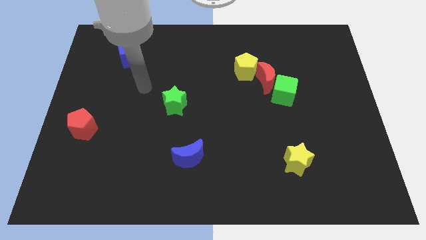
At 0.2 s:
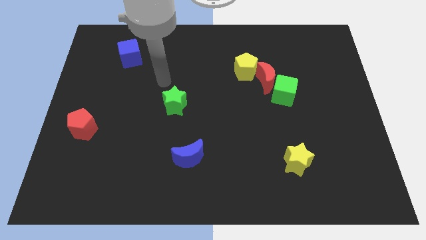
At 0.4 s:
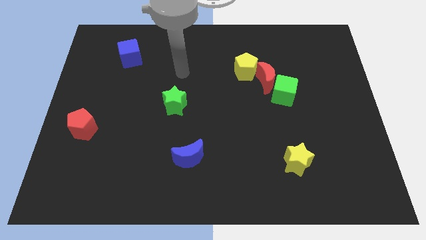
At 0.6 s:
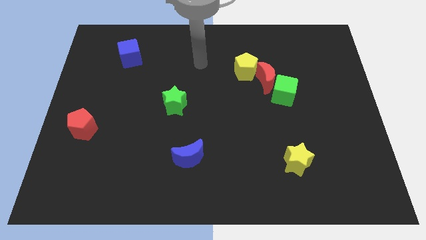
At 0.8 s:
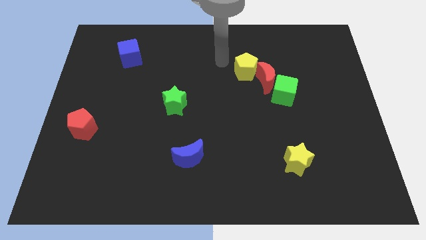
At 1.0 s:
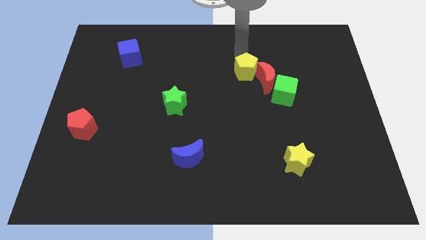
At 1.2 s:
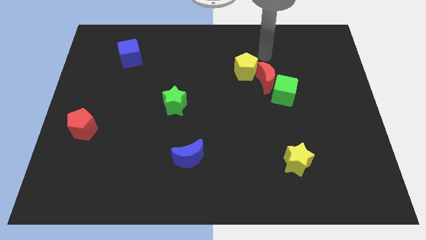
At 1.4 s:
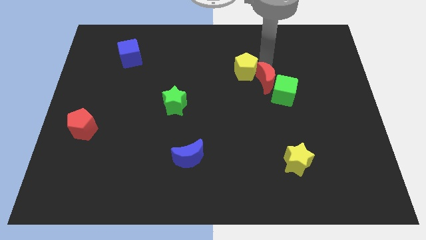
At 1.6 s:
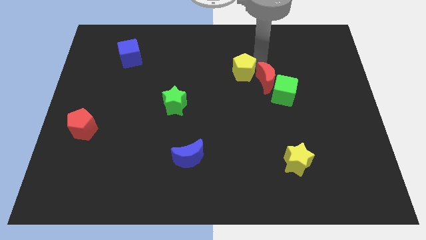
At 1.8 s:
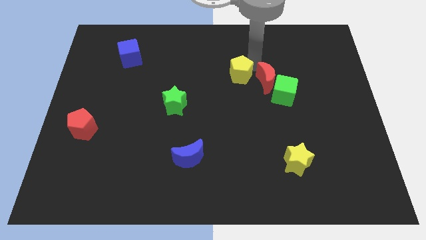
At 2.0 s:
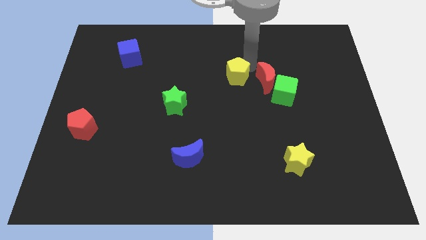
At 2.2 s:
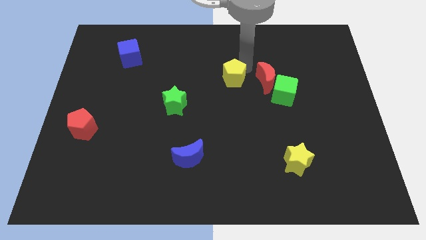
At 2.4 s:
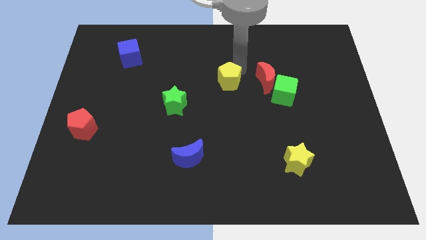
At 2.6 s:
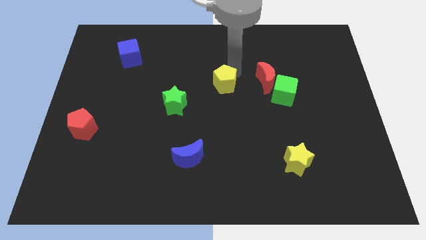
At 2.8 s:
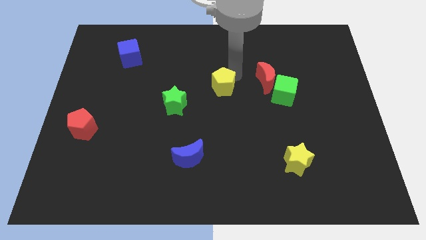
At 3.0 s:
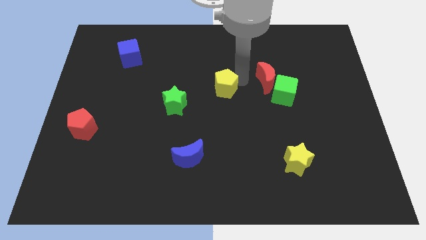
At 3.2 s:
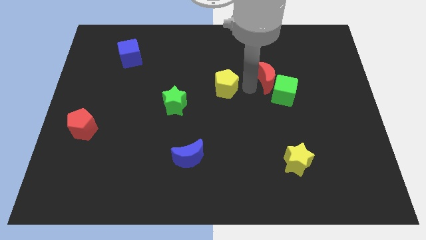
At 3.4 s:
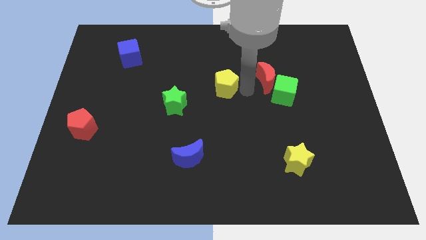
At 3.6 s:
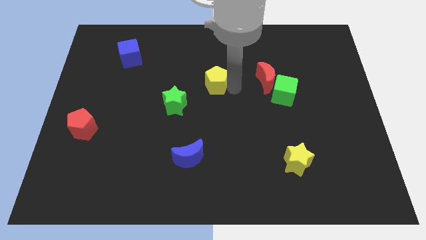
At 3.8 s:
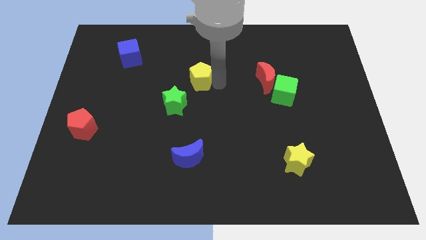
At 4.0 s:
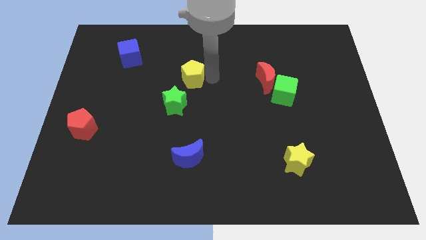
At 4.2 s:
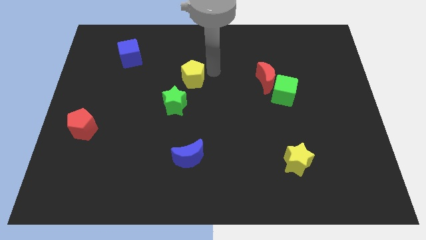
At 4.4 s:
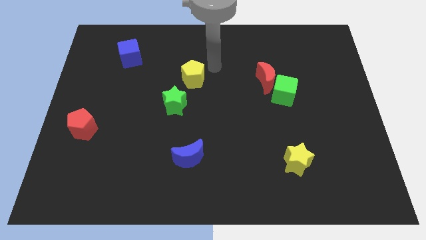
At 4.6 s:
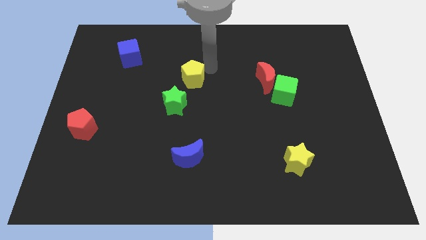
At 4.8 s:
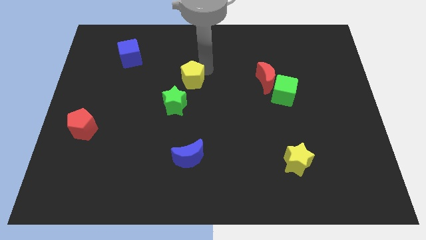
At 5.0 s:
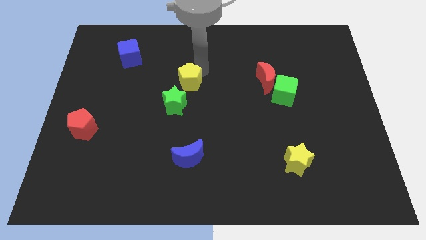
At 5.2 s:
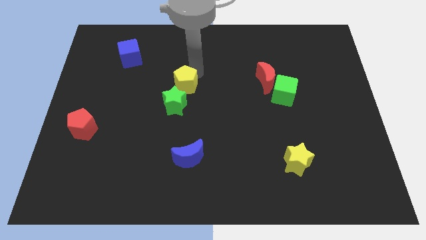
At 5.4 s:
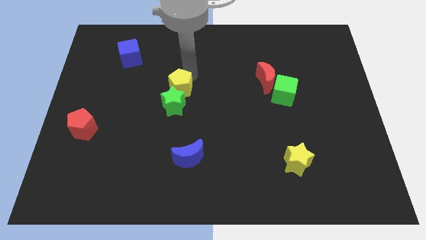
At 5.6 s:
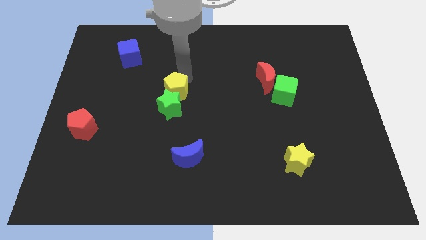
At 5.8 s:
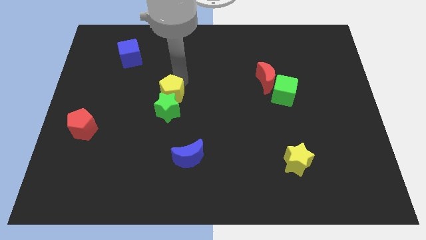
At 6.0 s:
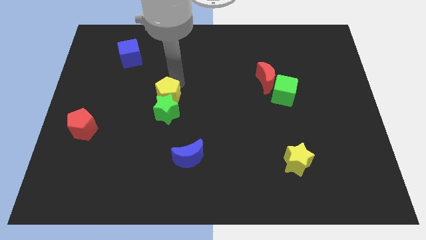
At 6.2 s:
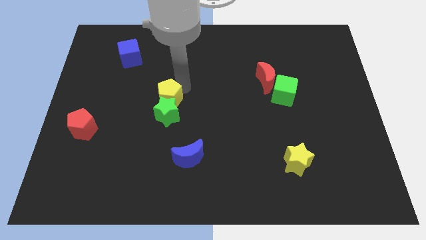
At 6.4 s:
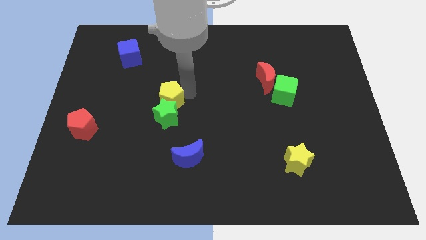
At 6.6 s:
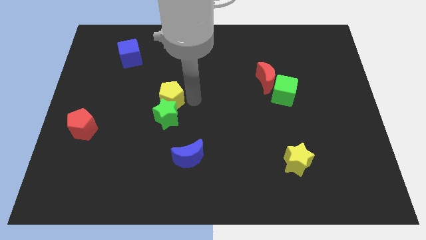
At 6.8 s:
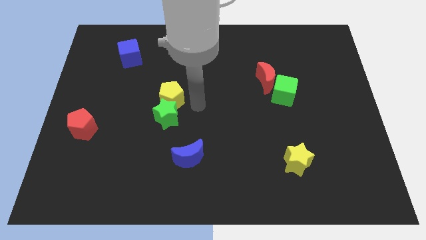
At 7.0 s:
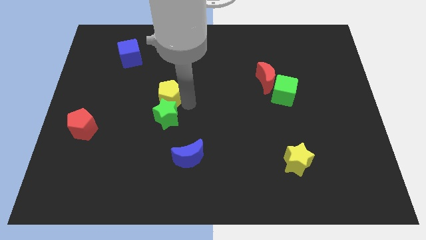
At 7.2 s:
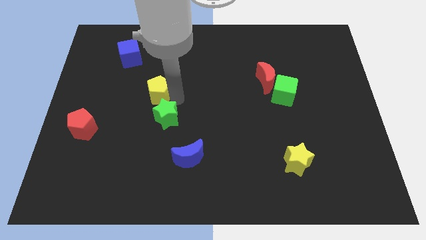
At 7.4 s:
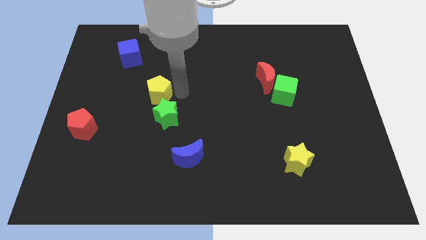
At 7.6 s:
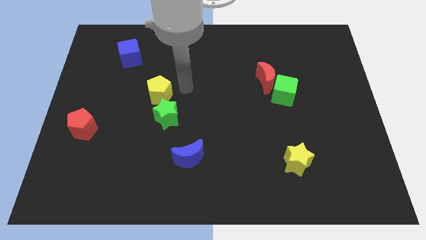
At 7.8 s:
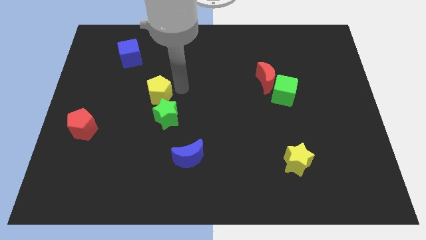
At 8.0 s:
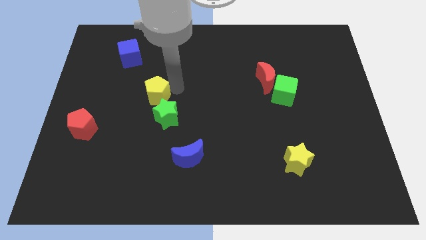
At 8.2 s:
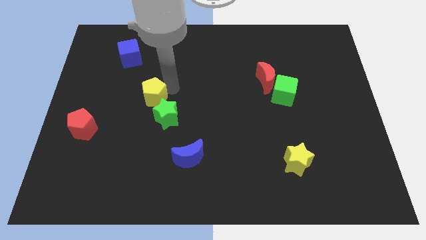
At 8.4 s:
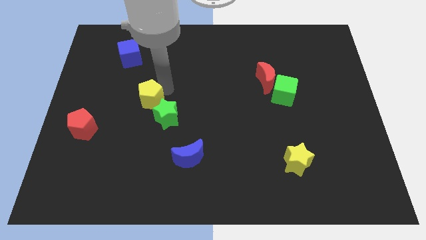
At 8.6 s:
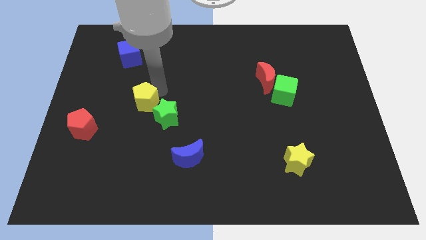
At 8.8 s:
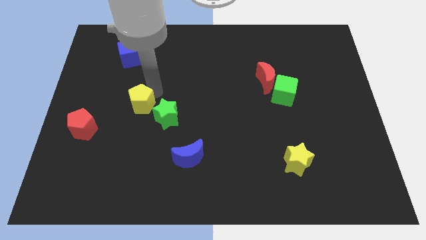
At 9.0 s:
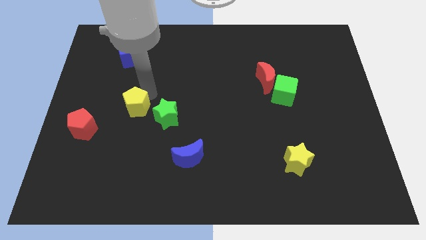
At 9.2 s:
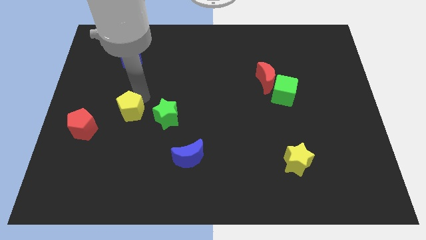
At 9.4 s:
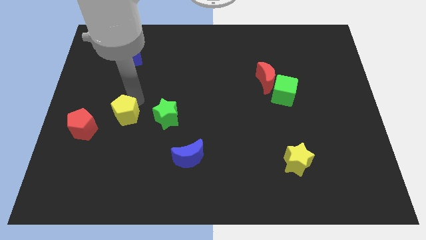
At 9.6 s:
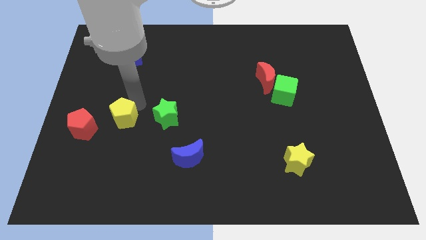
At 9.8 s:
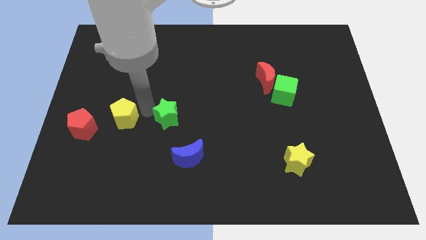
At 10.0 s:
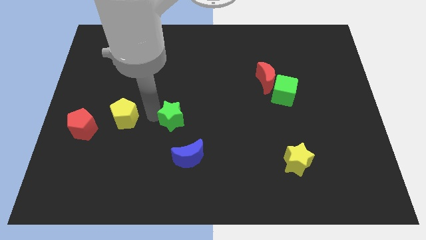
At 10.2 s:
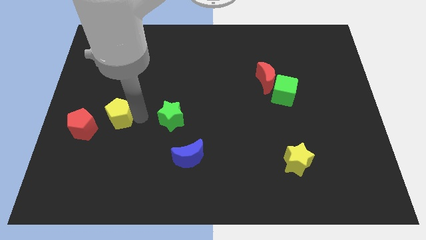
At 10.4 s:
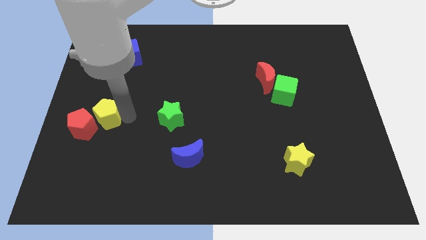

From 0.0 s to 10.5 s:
put the yellow pentagon close to the red pentagon

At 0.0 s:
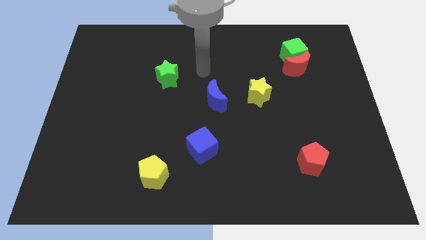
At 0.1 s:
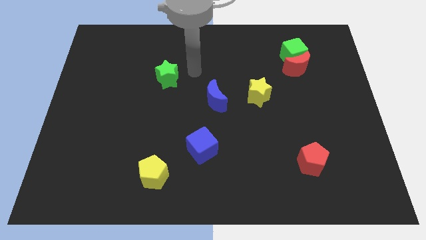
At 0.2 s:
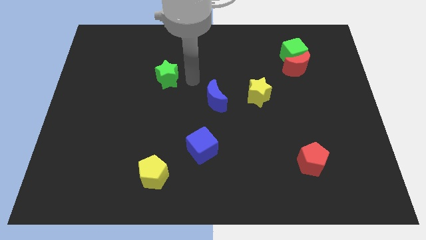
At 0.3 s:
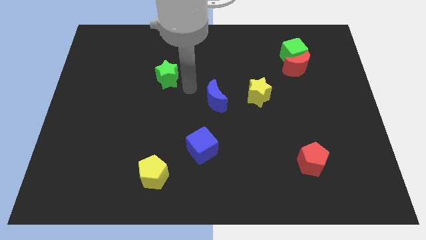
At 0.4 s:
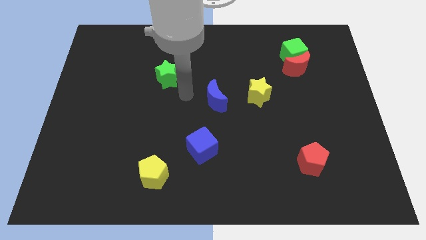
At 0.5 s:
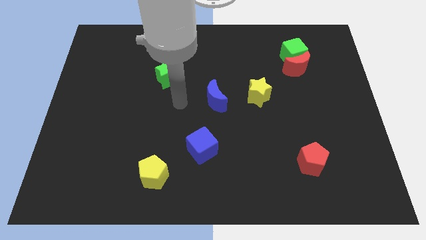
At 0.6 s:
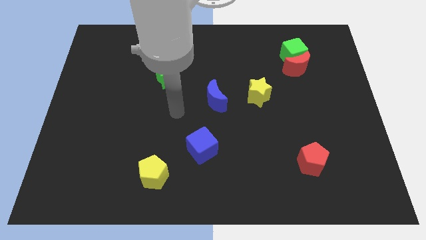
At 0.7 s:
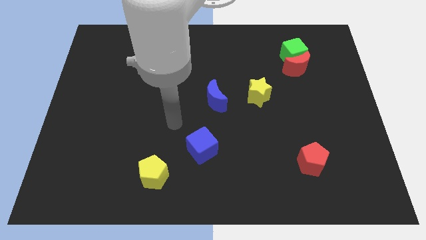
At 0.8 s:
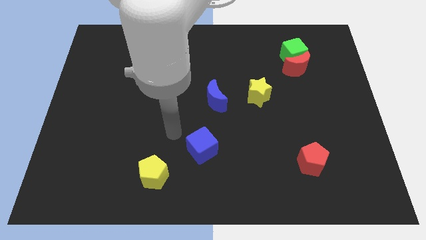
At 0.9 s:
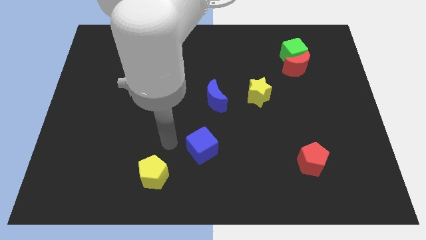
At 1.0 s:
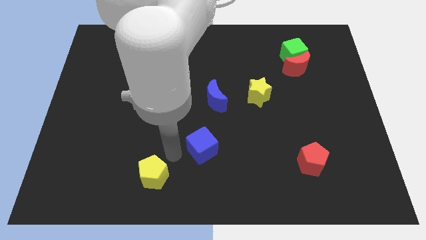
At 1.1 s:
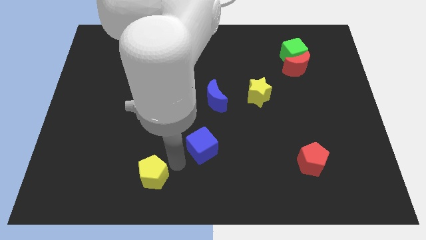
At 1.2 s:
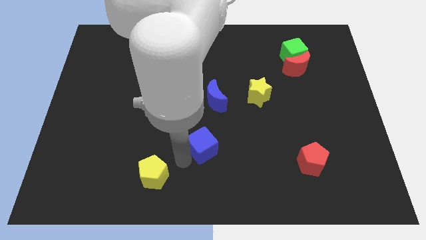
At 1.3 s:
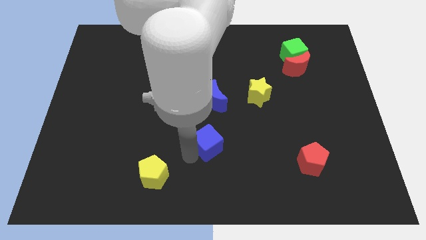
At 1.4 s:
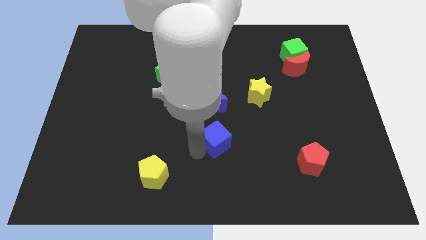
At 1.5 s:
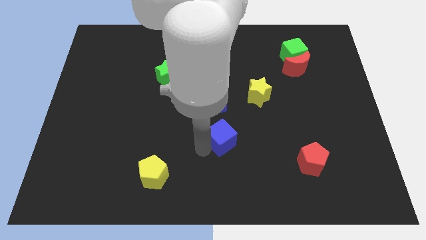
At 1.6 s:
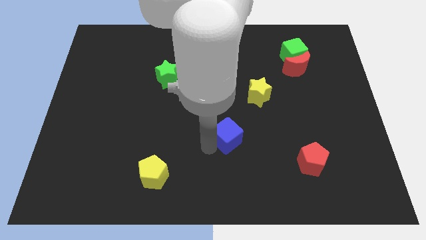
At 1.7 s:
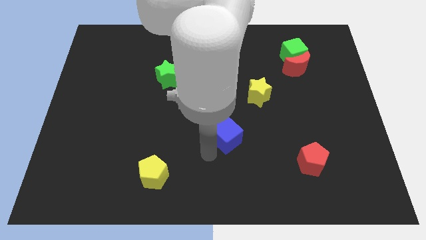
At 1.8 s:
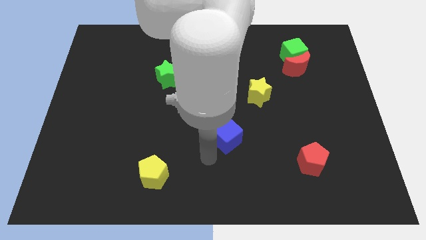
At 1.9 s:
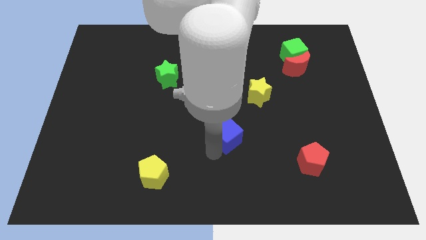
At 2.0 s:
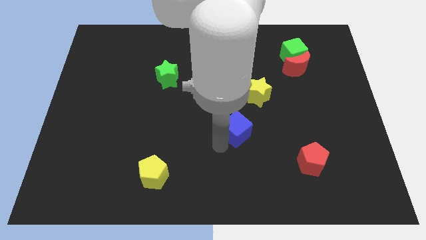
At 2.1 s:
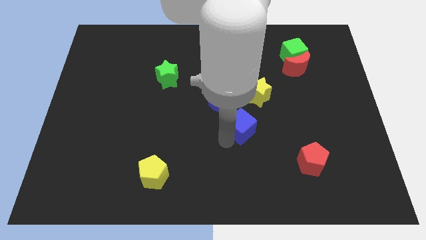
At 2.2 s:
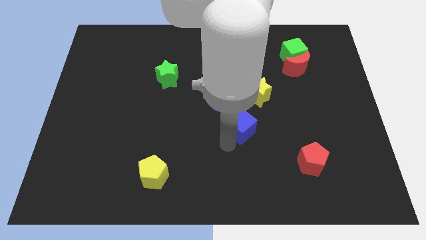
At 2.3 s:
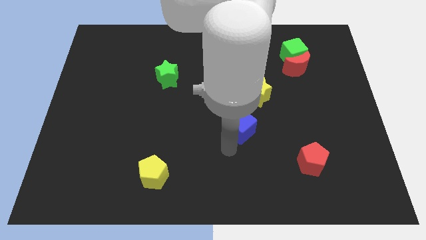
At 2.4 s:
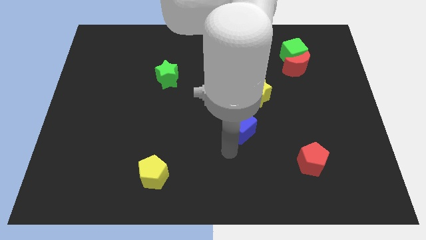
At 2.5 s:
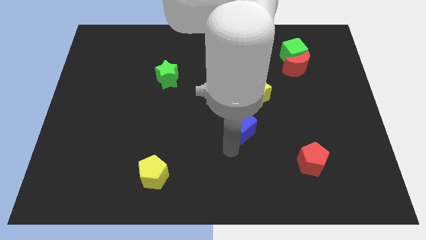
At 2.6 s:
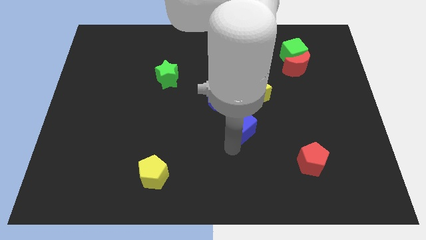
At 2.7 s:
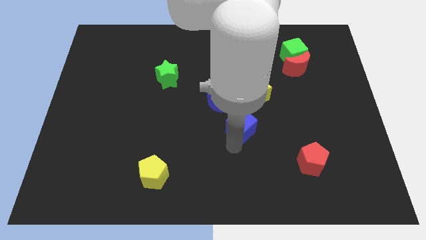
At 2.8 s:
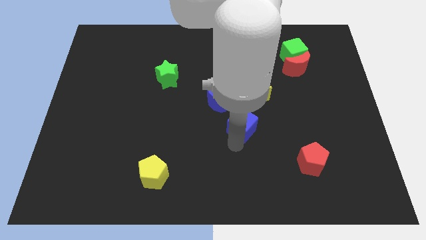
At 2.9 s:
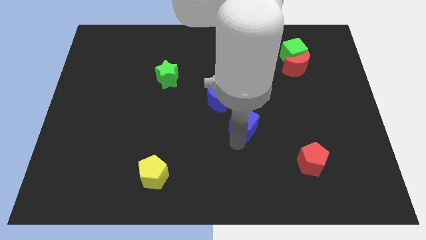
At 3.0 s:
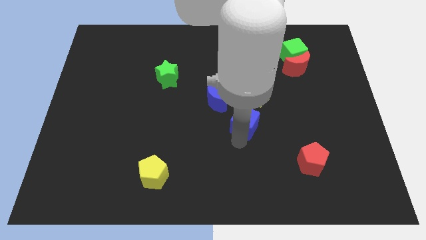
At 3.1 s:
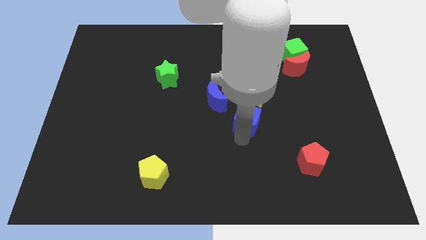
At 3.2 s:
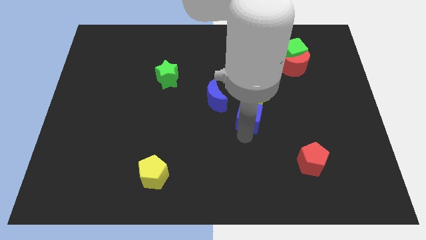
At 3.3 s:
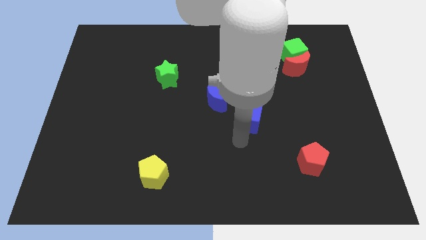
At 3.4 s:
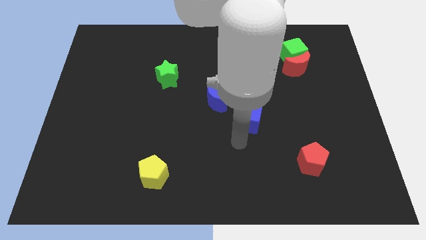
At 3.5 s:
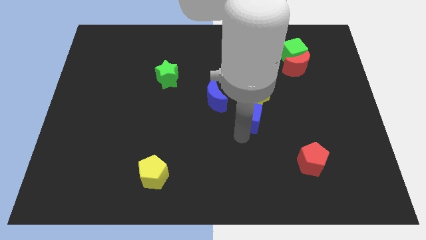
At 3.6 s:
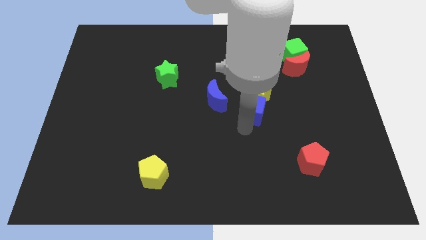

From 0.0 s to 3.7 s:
slide the blue cube next to the yellow star
